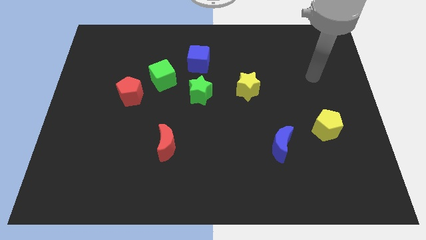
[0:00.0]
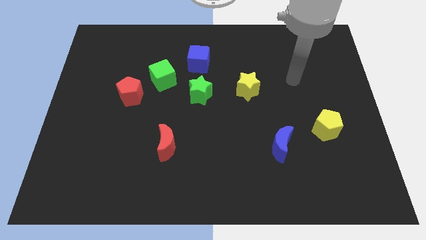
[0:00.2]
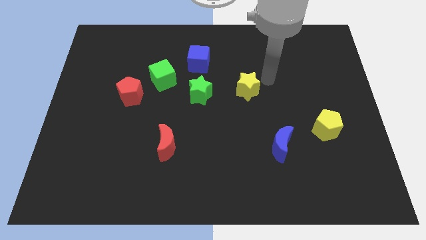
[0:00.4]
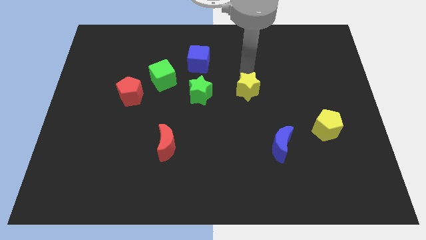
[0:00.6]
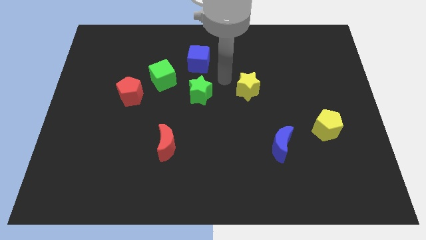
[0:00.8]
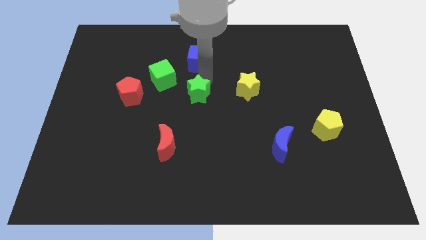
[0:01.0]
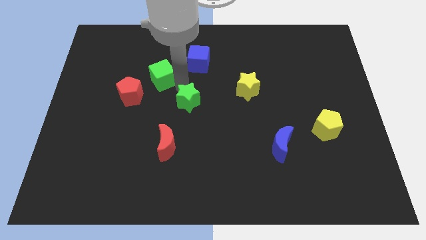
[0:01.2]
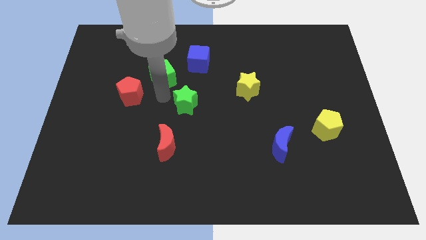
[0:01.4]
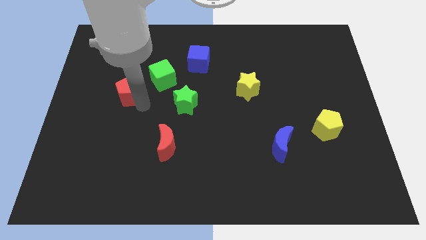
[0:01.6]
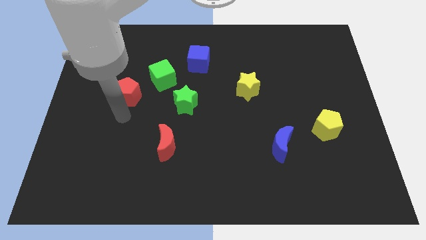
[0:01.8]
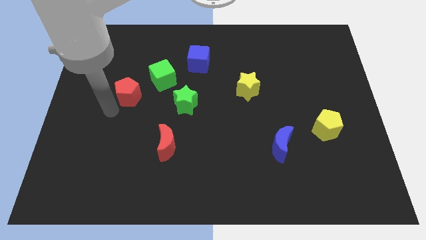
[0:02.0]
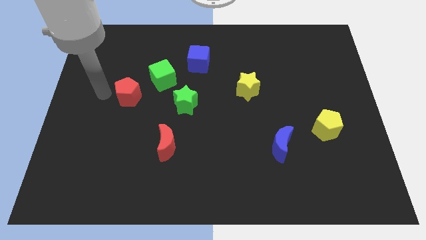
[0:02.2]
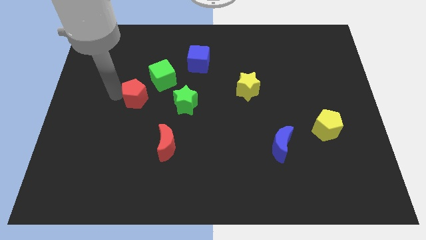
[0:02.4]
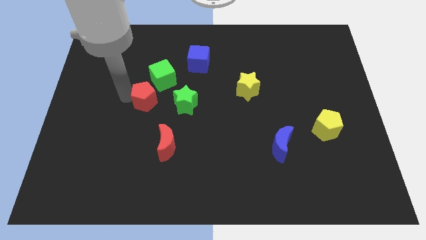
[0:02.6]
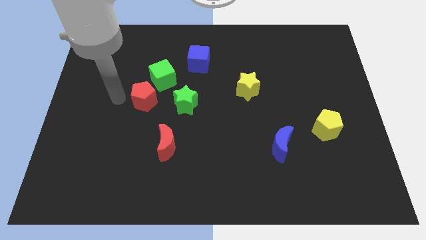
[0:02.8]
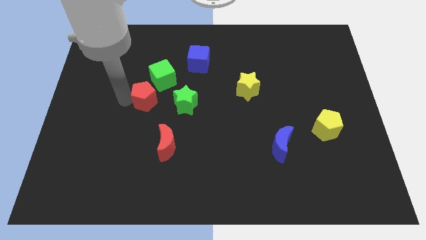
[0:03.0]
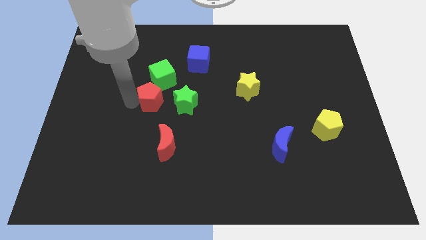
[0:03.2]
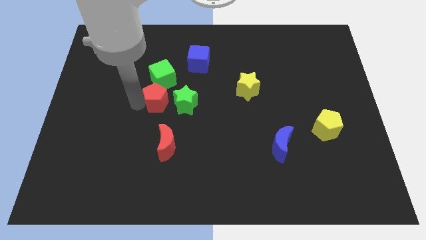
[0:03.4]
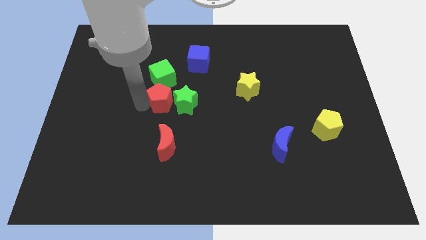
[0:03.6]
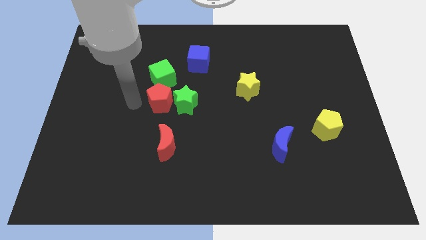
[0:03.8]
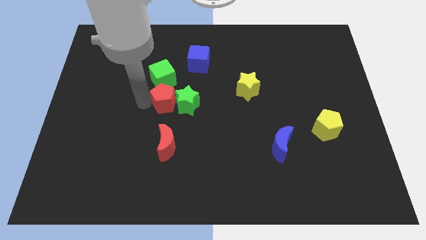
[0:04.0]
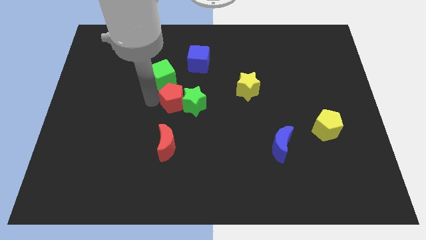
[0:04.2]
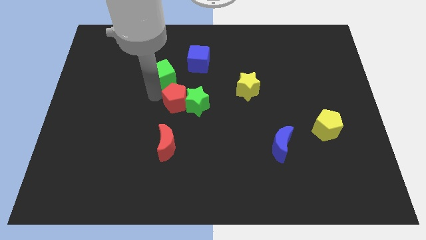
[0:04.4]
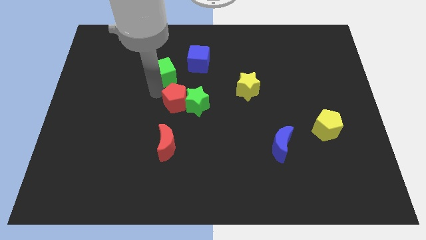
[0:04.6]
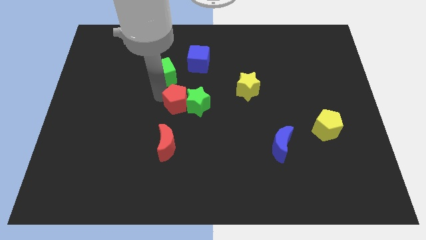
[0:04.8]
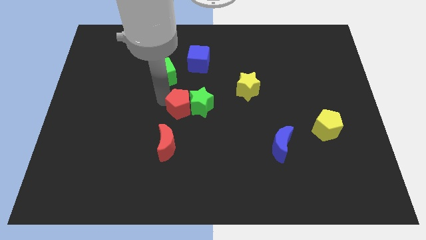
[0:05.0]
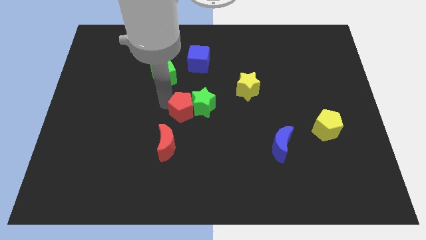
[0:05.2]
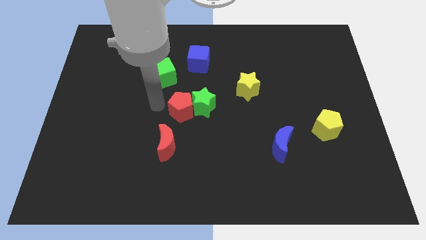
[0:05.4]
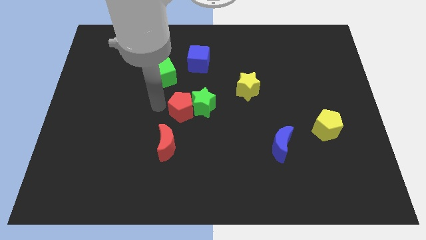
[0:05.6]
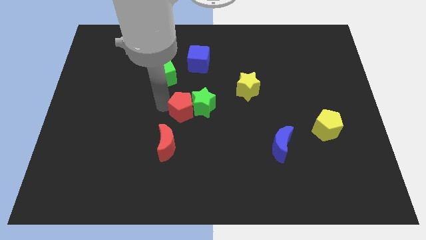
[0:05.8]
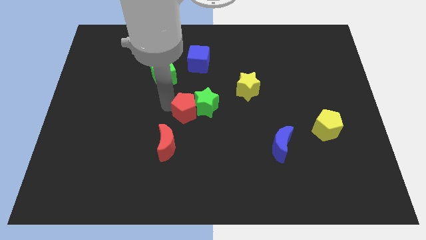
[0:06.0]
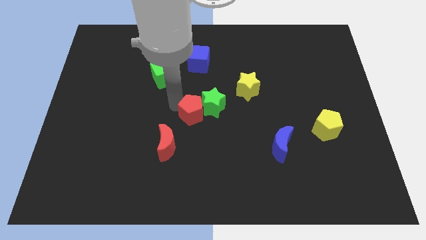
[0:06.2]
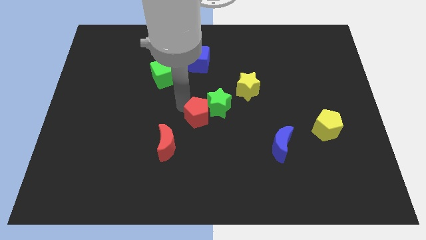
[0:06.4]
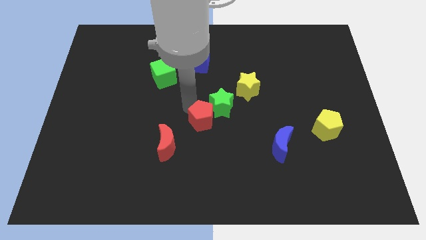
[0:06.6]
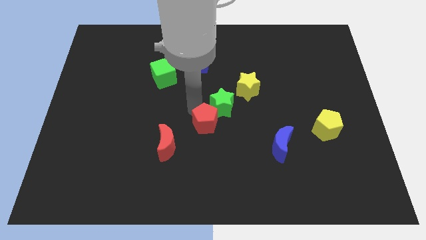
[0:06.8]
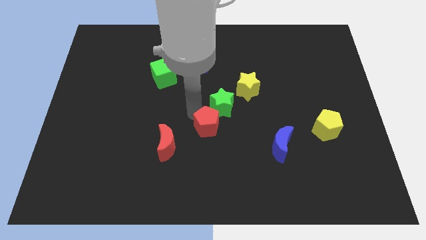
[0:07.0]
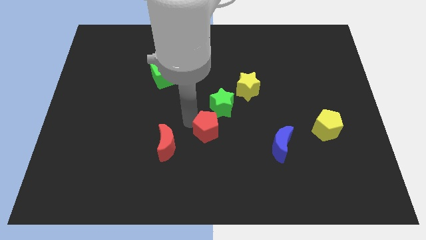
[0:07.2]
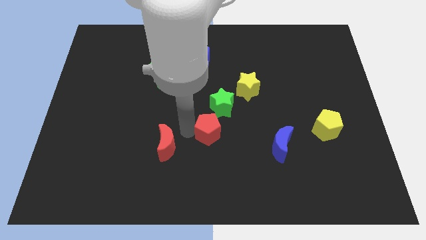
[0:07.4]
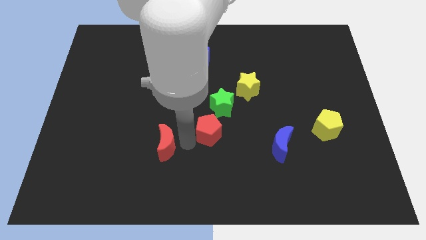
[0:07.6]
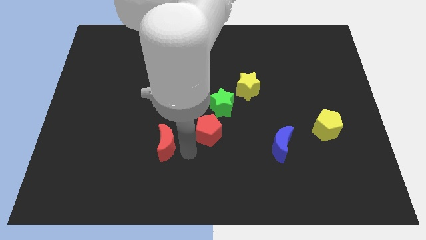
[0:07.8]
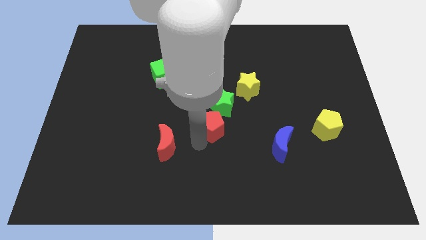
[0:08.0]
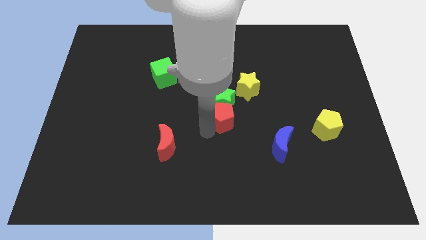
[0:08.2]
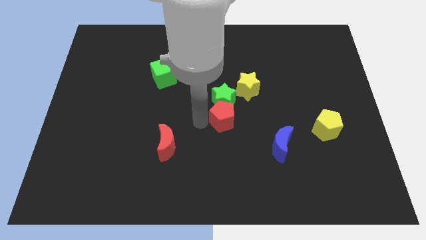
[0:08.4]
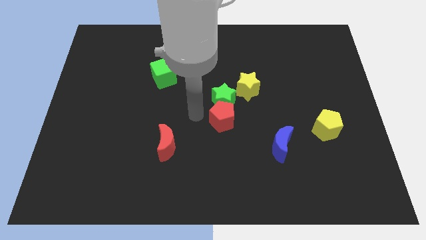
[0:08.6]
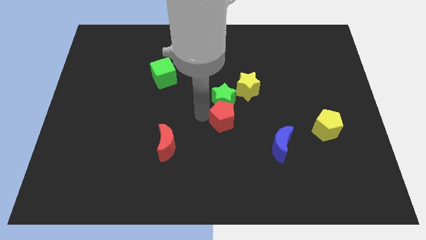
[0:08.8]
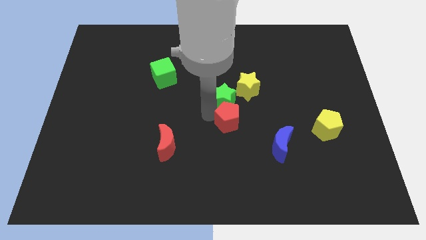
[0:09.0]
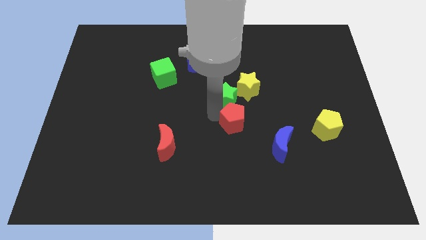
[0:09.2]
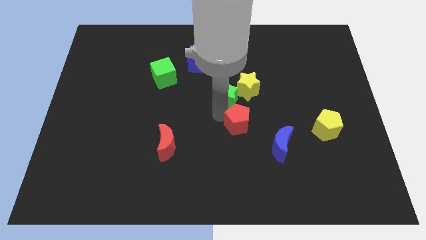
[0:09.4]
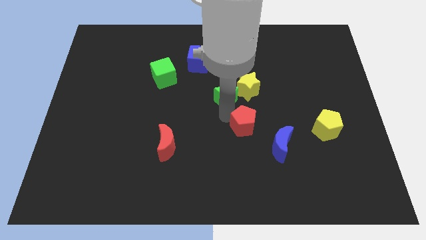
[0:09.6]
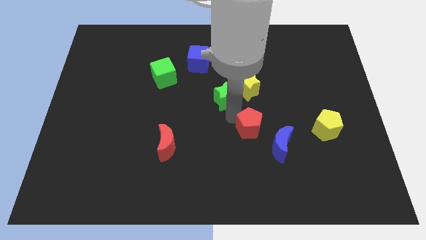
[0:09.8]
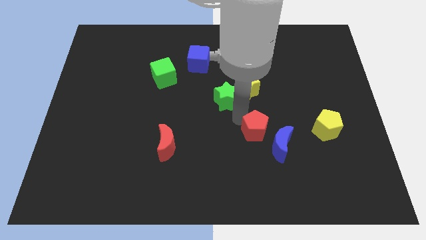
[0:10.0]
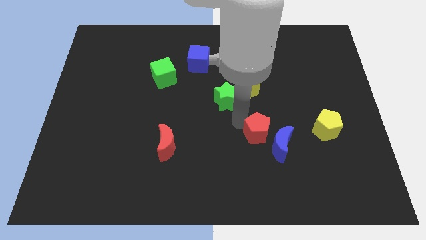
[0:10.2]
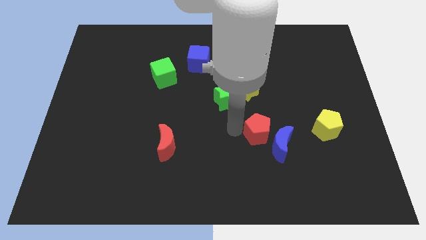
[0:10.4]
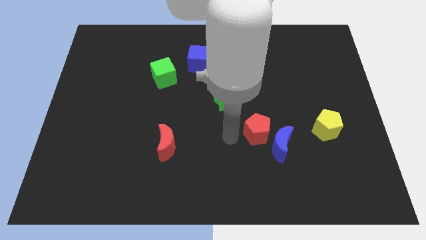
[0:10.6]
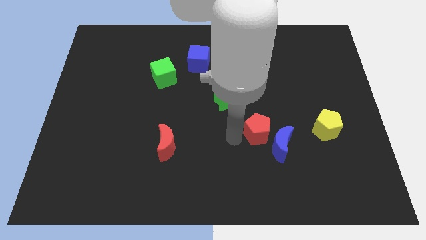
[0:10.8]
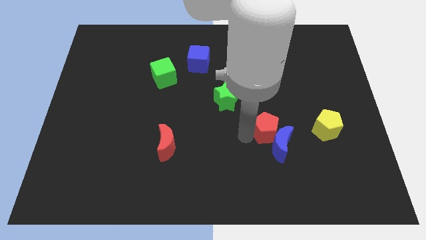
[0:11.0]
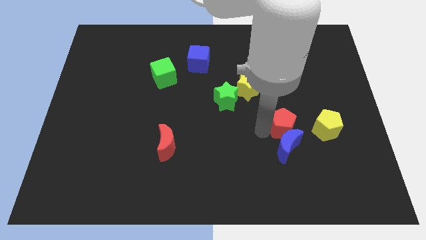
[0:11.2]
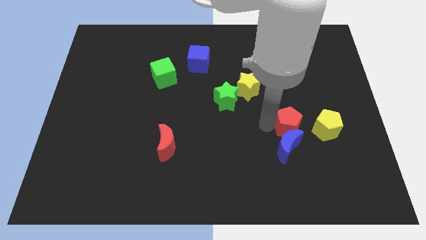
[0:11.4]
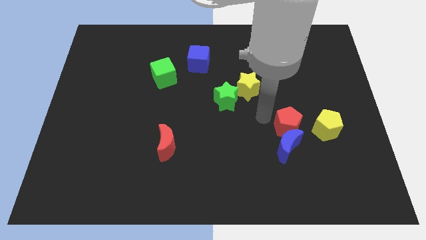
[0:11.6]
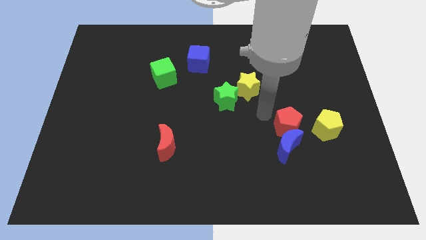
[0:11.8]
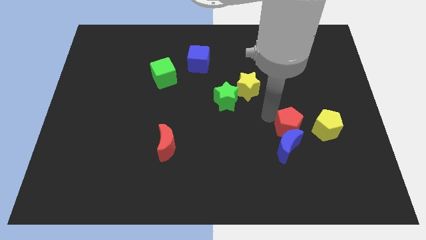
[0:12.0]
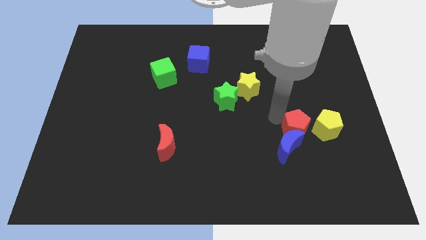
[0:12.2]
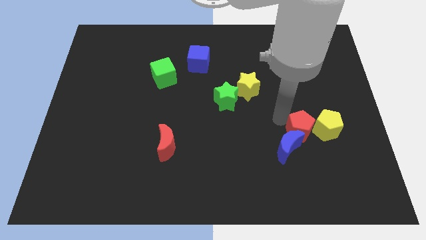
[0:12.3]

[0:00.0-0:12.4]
push the red pentagon to the right side of the blue moon

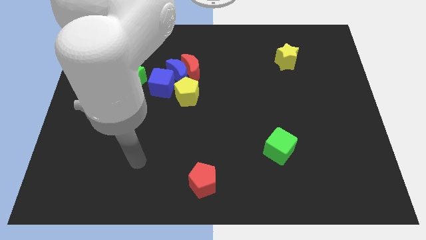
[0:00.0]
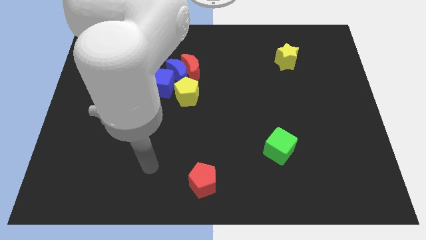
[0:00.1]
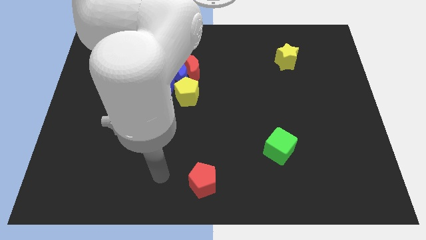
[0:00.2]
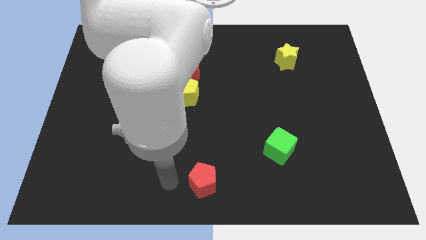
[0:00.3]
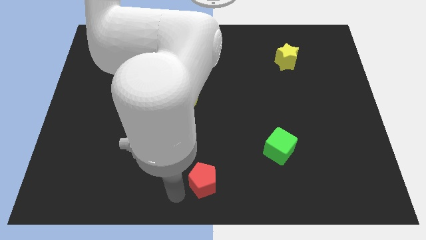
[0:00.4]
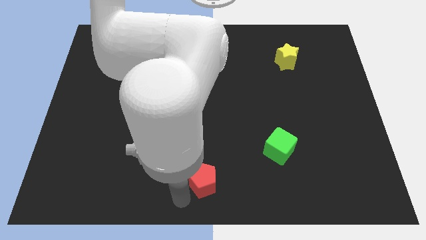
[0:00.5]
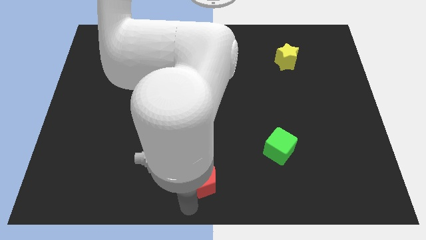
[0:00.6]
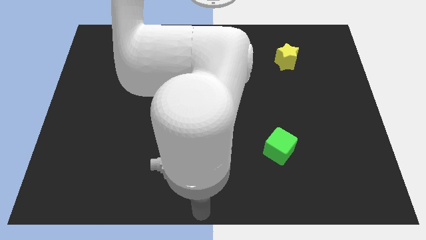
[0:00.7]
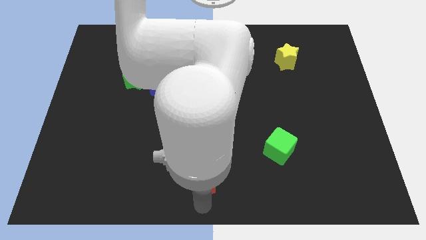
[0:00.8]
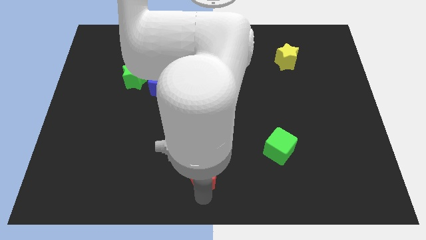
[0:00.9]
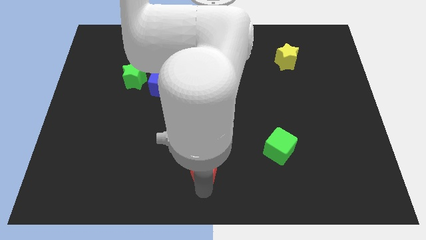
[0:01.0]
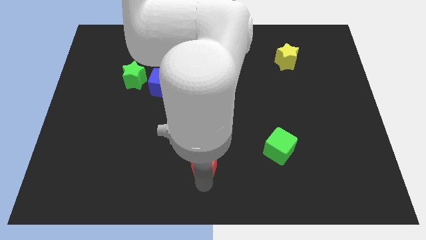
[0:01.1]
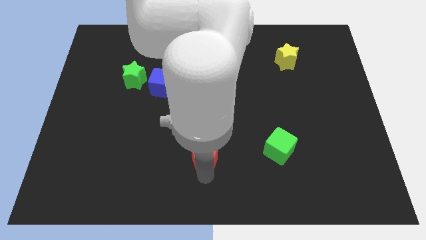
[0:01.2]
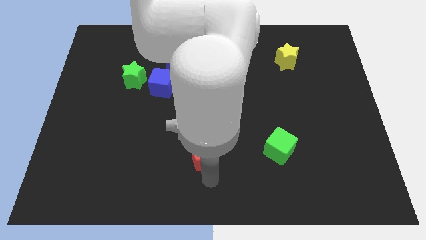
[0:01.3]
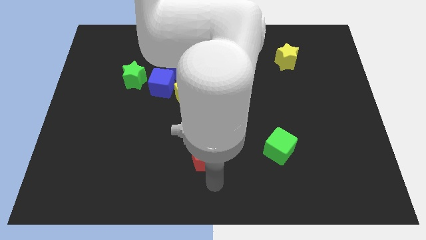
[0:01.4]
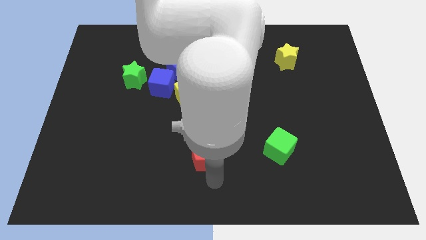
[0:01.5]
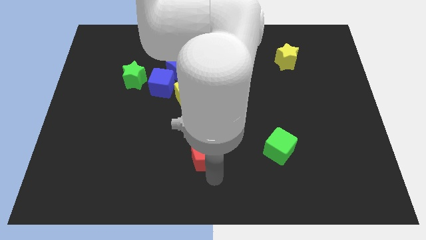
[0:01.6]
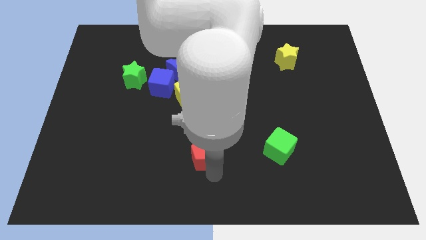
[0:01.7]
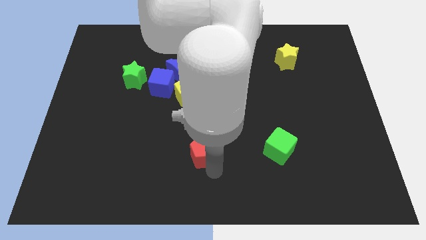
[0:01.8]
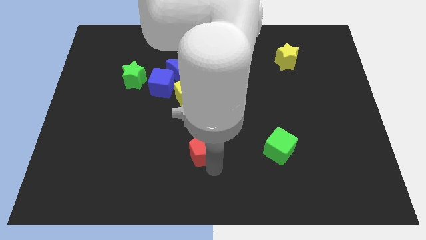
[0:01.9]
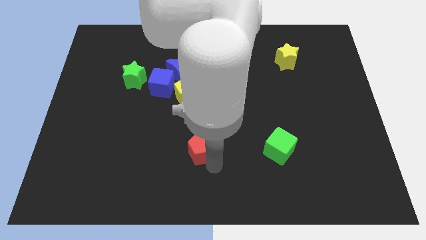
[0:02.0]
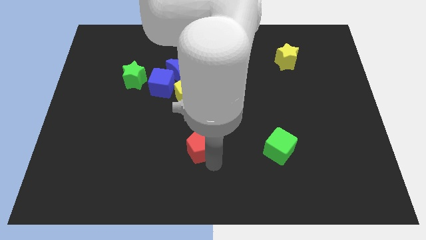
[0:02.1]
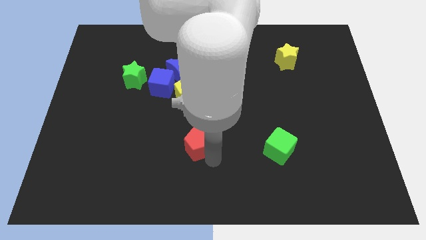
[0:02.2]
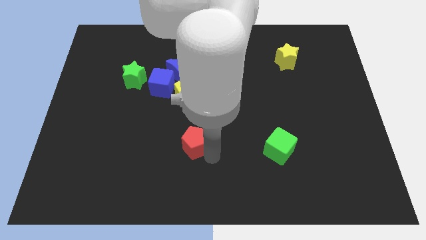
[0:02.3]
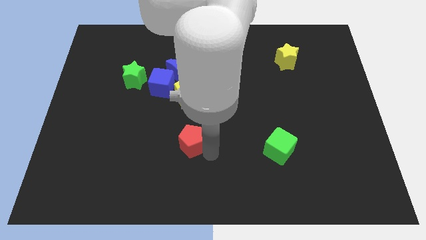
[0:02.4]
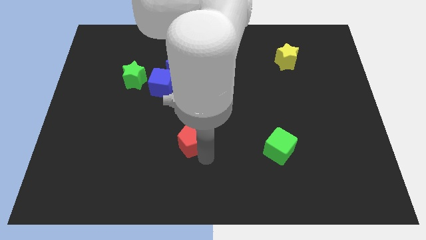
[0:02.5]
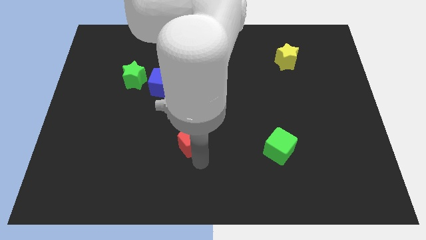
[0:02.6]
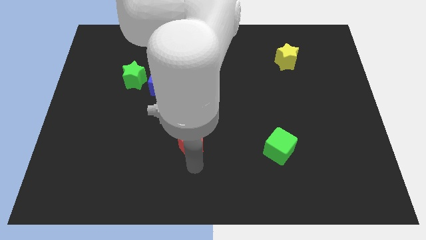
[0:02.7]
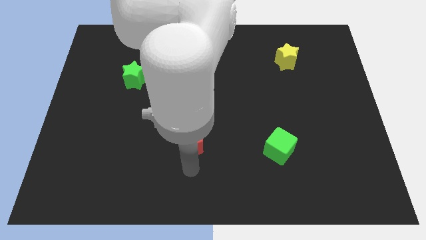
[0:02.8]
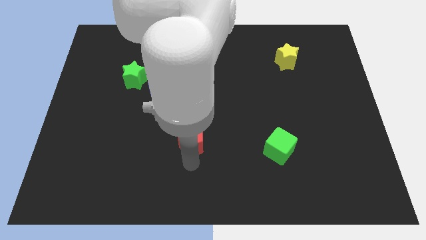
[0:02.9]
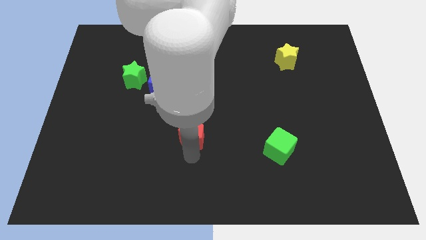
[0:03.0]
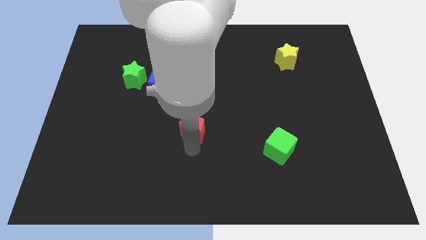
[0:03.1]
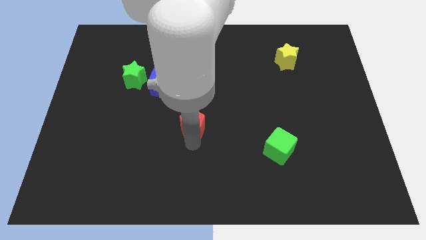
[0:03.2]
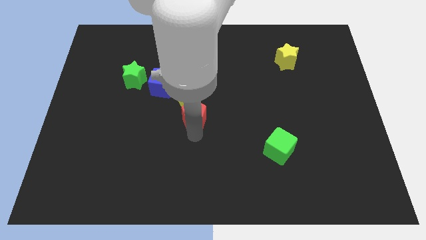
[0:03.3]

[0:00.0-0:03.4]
move the red pentagon to the bottom right side of the blue cube
